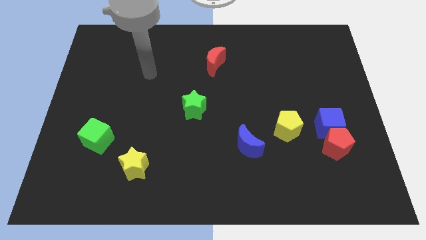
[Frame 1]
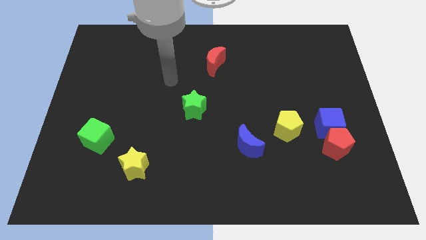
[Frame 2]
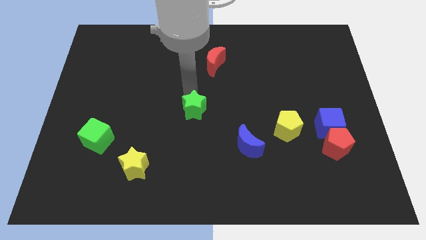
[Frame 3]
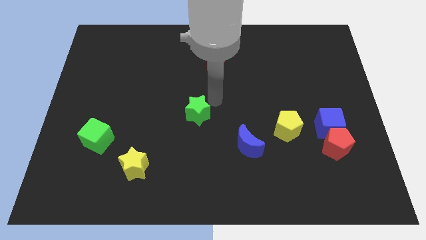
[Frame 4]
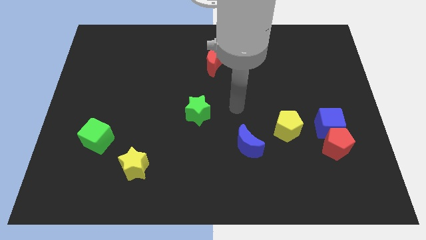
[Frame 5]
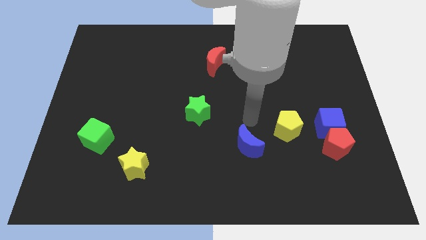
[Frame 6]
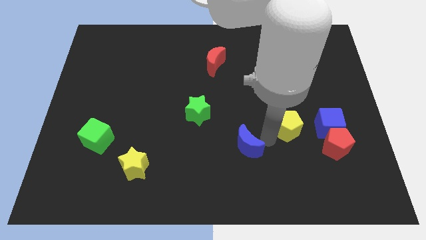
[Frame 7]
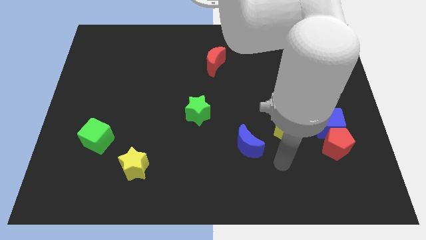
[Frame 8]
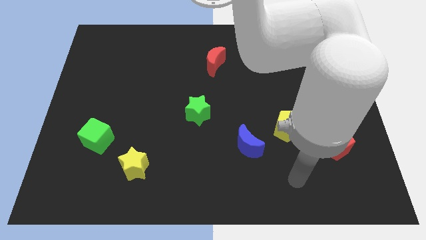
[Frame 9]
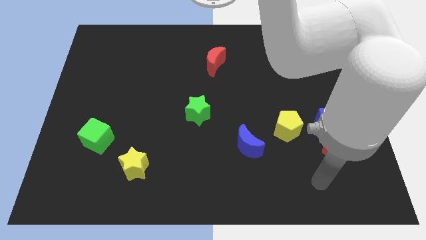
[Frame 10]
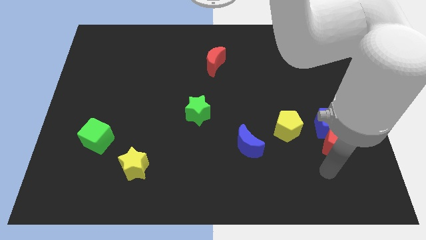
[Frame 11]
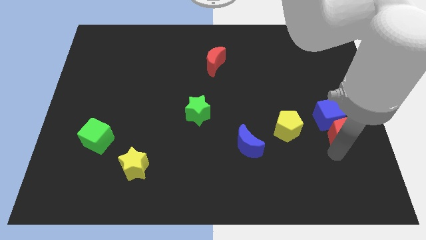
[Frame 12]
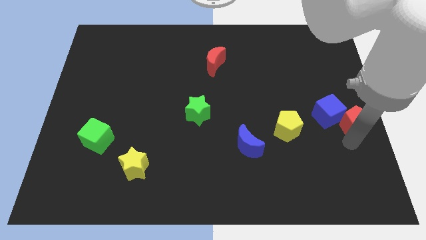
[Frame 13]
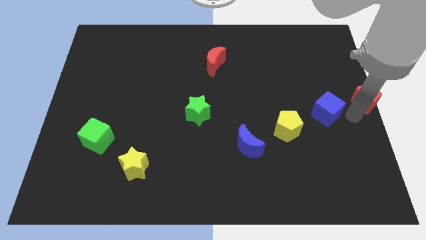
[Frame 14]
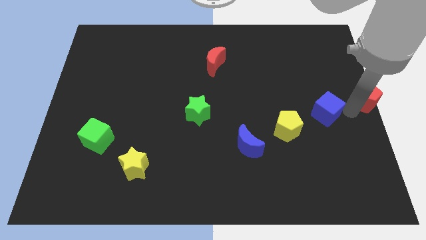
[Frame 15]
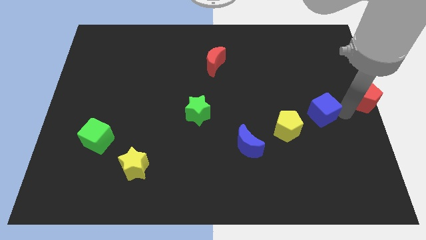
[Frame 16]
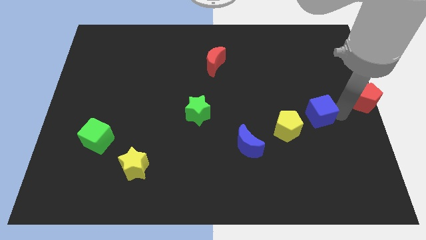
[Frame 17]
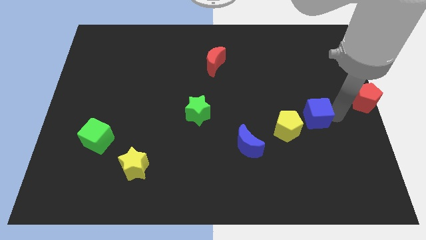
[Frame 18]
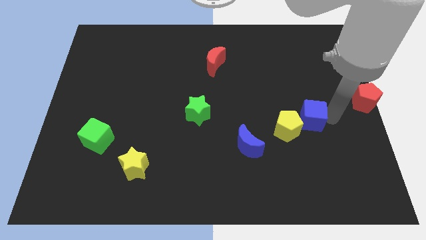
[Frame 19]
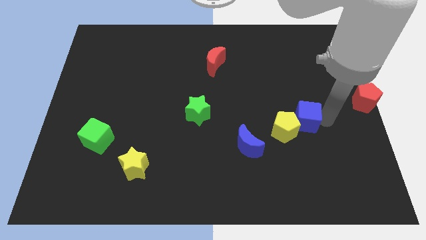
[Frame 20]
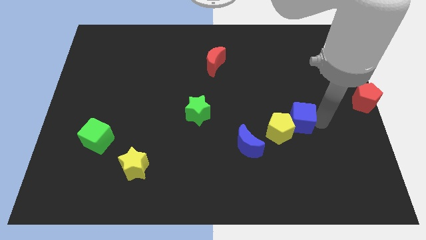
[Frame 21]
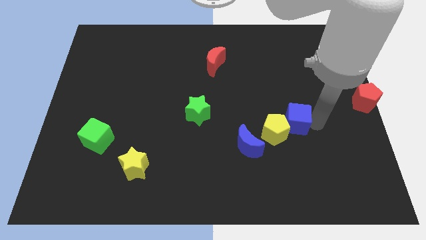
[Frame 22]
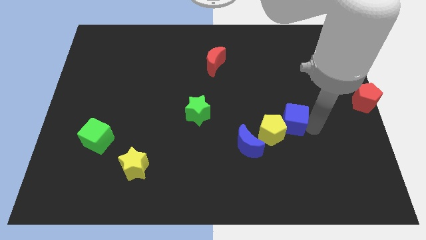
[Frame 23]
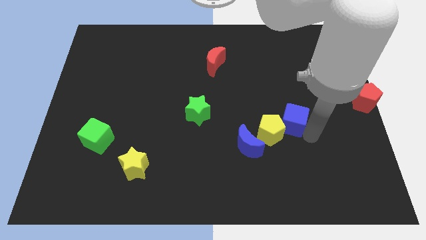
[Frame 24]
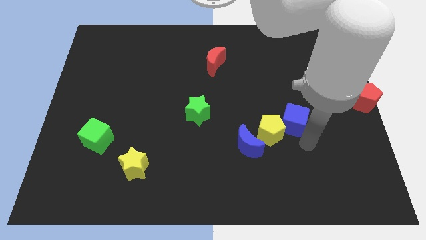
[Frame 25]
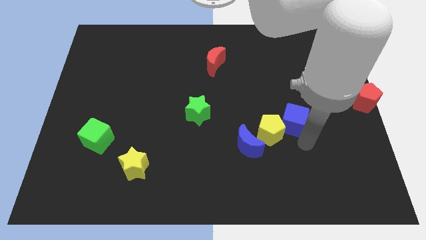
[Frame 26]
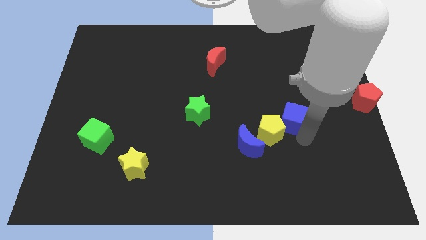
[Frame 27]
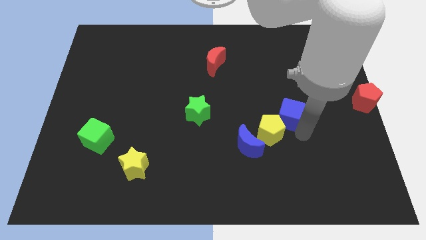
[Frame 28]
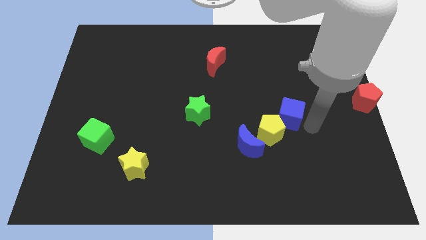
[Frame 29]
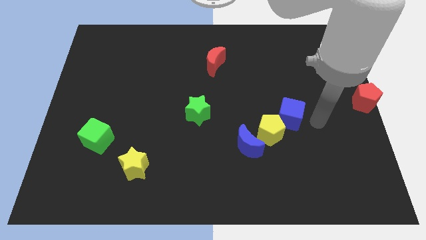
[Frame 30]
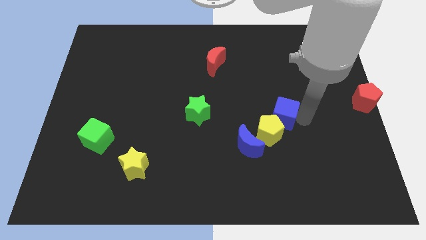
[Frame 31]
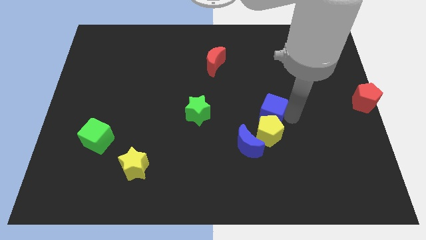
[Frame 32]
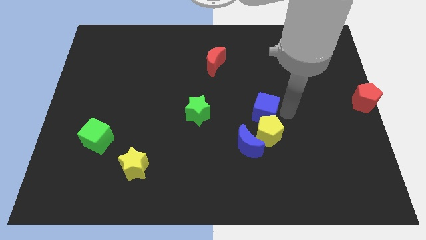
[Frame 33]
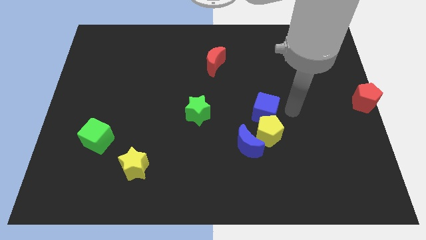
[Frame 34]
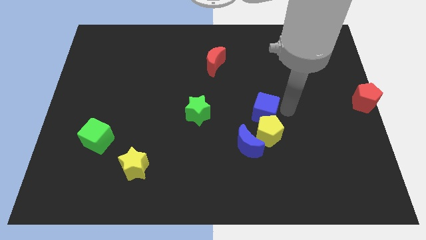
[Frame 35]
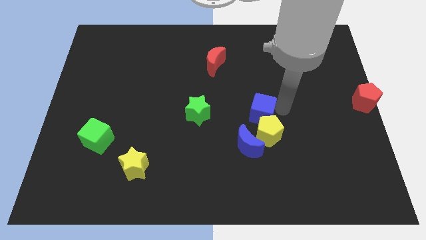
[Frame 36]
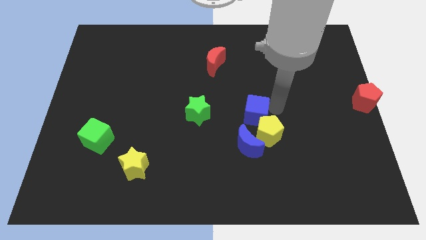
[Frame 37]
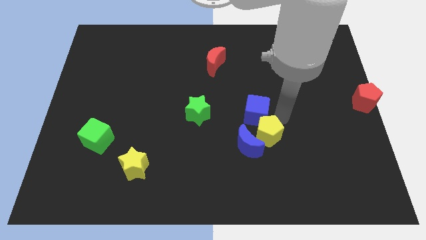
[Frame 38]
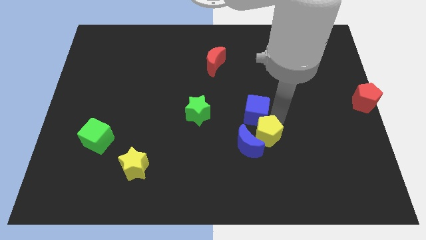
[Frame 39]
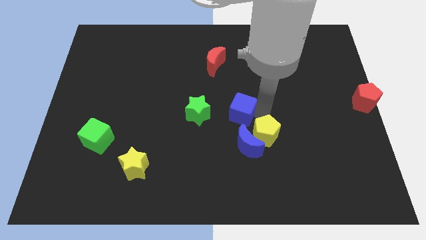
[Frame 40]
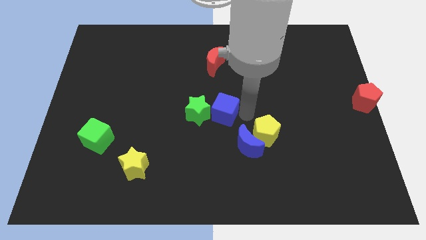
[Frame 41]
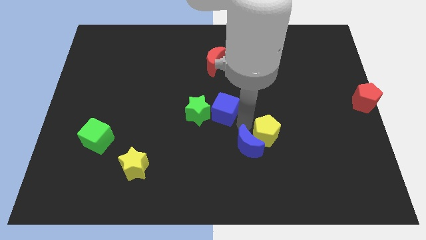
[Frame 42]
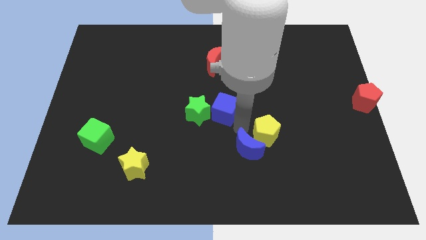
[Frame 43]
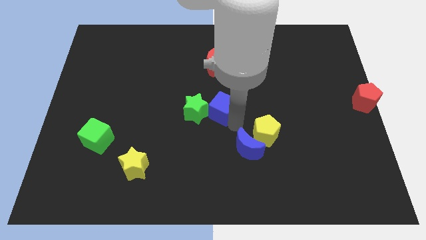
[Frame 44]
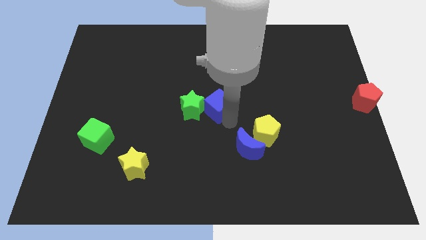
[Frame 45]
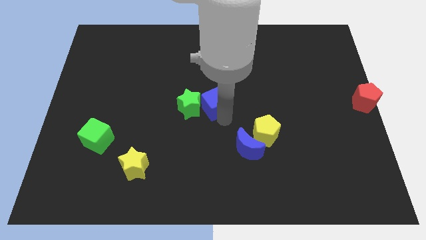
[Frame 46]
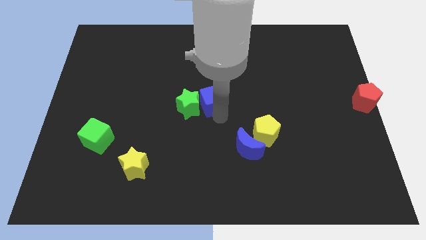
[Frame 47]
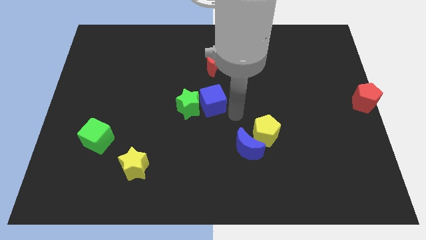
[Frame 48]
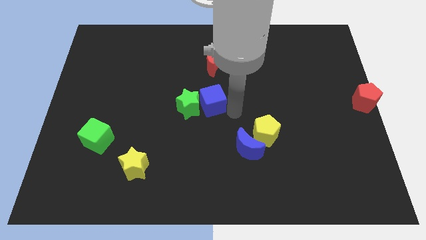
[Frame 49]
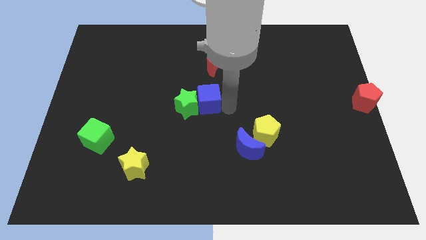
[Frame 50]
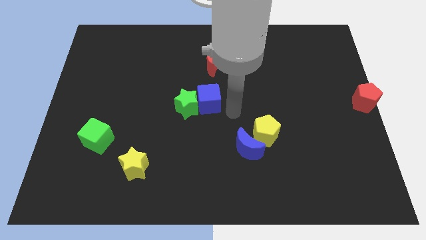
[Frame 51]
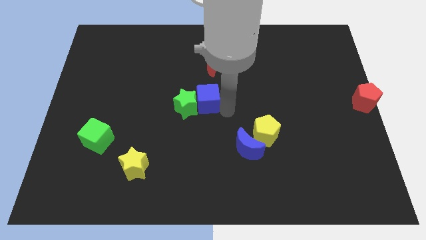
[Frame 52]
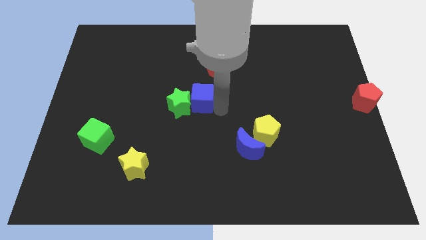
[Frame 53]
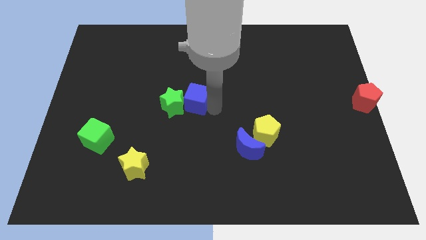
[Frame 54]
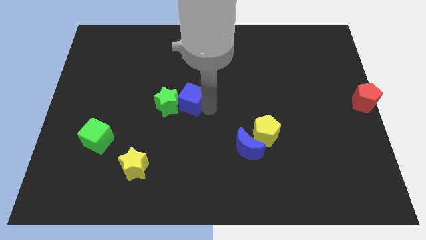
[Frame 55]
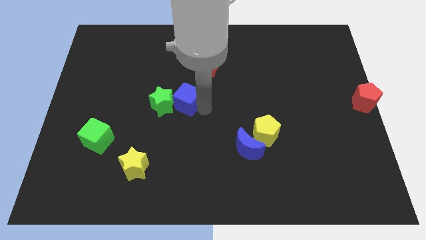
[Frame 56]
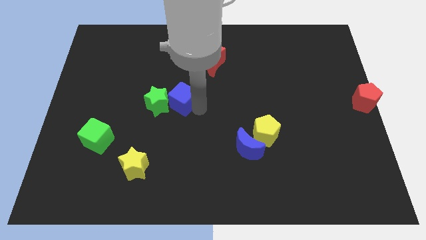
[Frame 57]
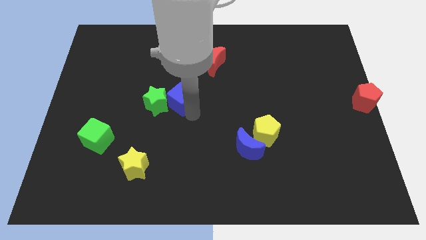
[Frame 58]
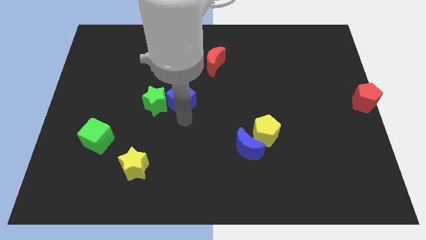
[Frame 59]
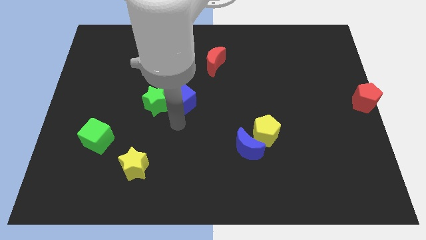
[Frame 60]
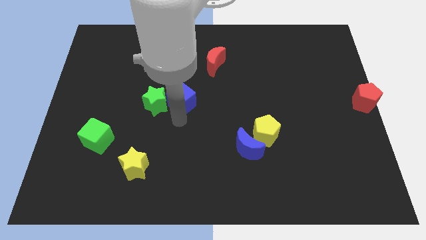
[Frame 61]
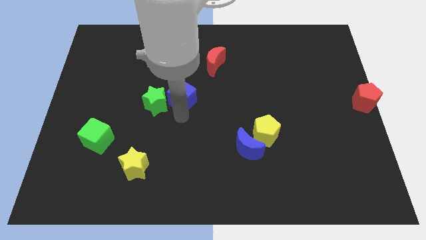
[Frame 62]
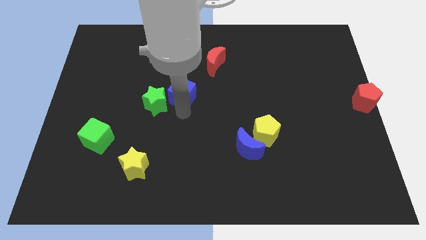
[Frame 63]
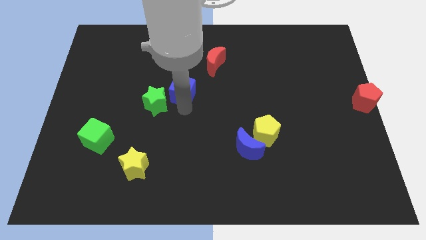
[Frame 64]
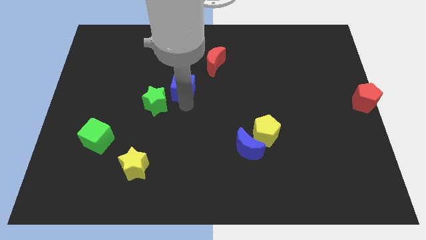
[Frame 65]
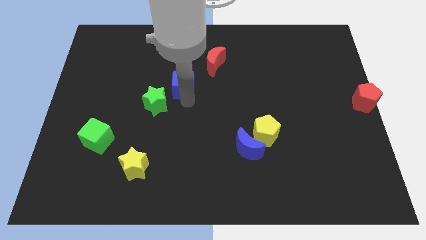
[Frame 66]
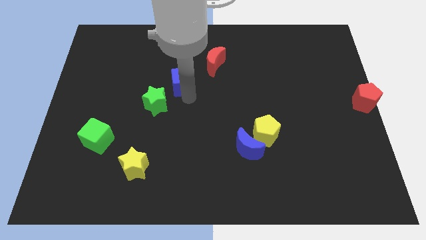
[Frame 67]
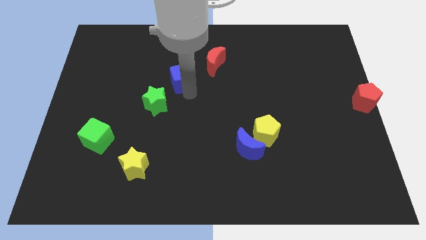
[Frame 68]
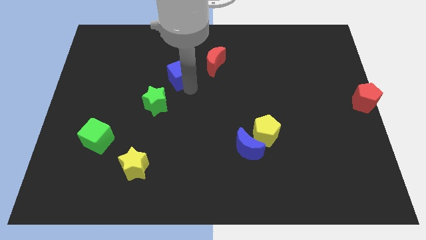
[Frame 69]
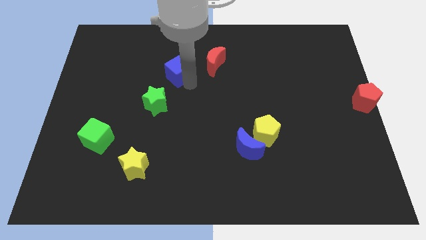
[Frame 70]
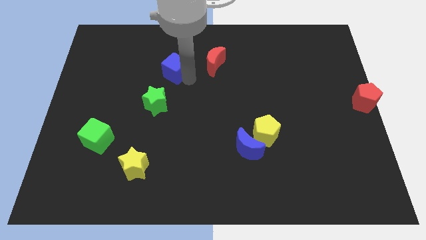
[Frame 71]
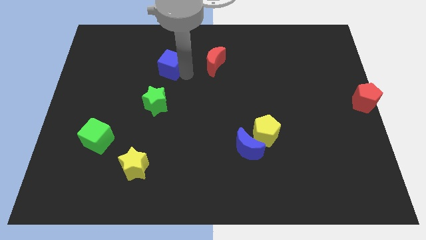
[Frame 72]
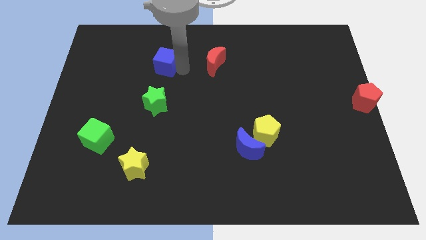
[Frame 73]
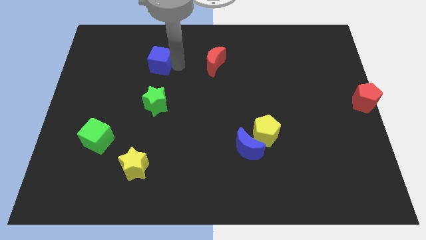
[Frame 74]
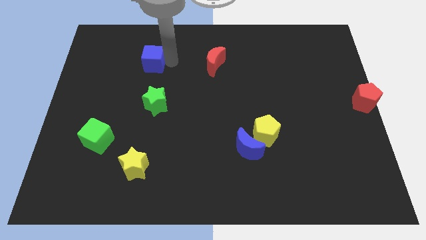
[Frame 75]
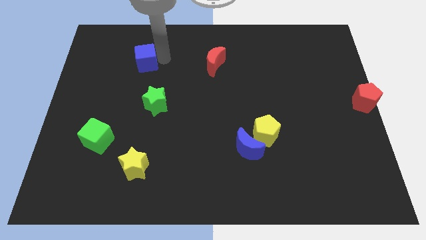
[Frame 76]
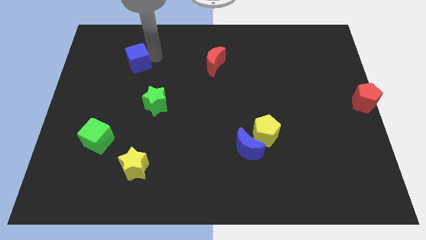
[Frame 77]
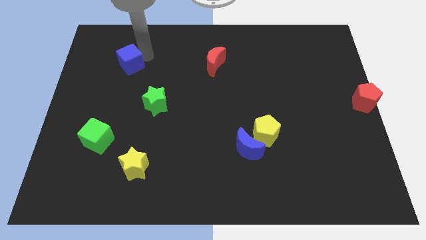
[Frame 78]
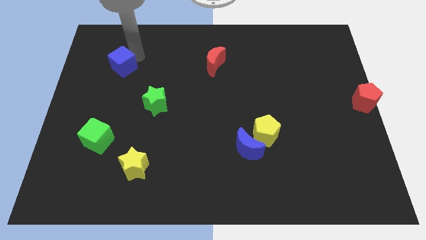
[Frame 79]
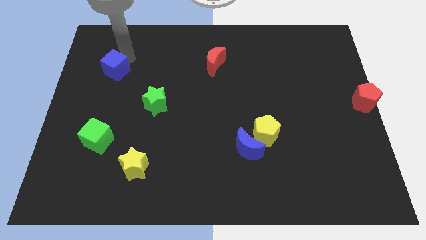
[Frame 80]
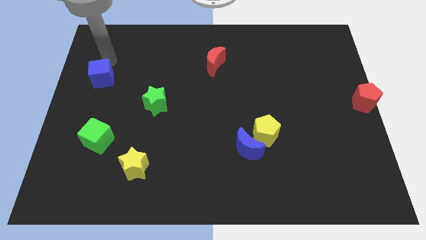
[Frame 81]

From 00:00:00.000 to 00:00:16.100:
put the blue cube to the left side

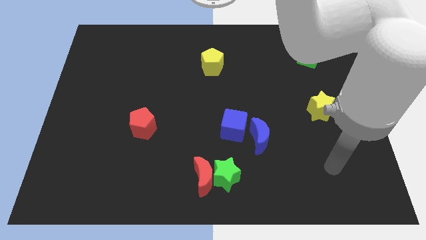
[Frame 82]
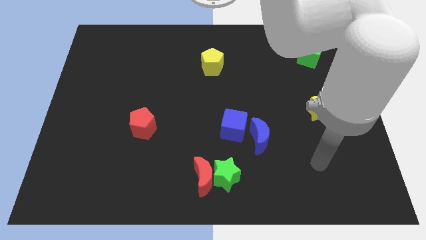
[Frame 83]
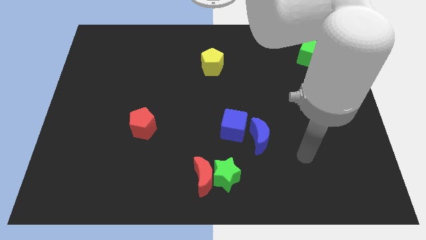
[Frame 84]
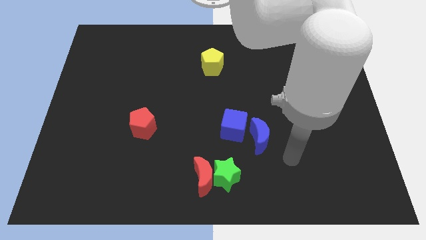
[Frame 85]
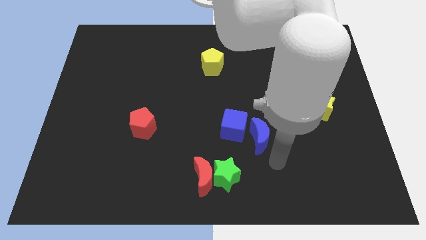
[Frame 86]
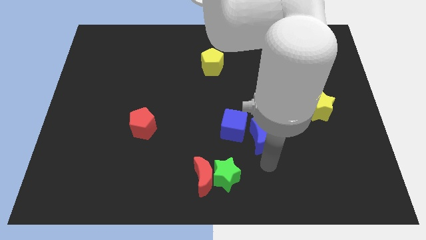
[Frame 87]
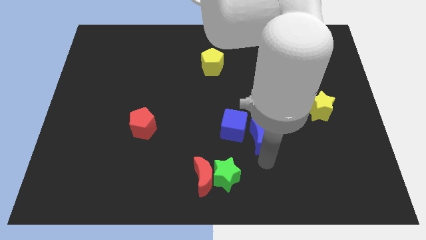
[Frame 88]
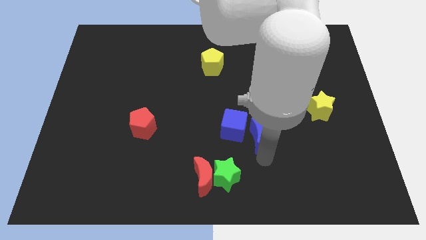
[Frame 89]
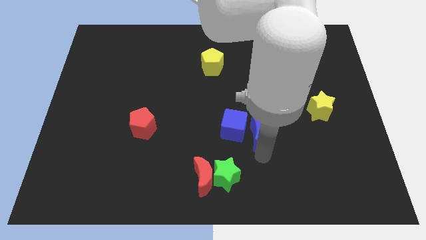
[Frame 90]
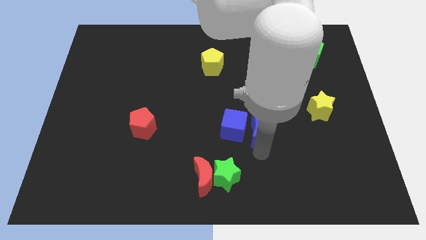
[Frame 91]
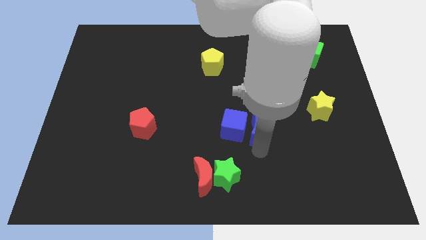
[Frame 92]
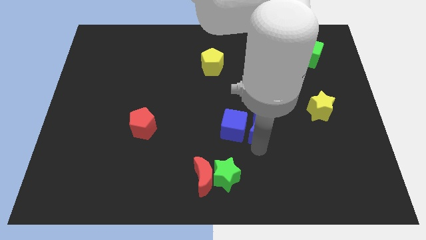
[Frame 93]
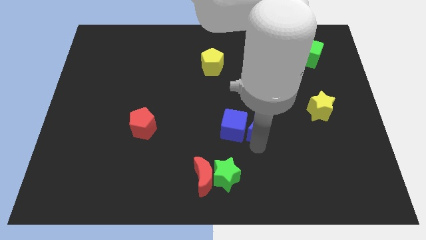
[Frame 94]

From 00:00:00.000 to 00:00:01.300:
push the blue moon to the center
